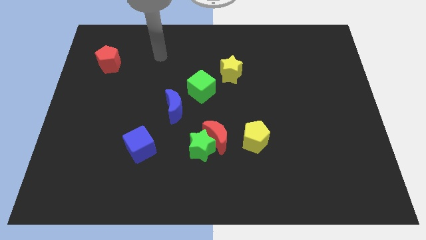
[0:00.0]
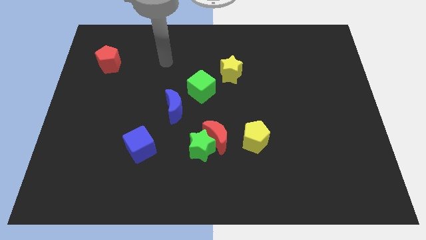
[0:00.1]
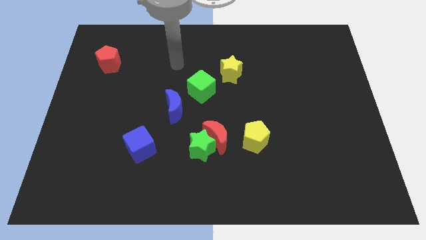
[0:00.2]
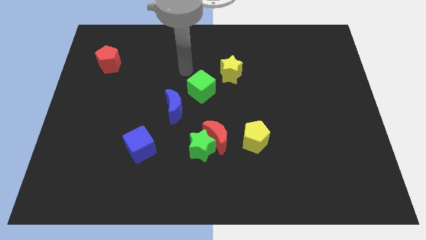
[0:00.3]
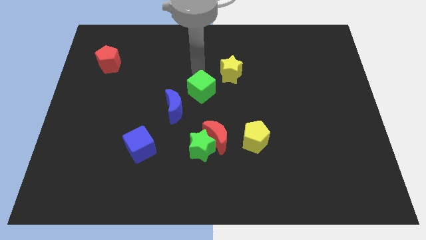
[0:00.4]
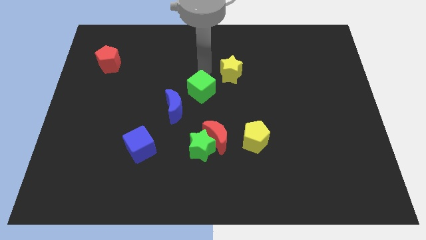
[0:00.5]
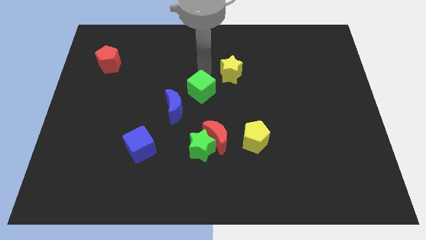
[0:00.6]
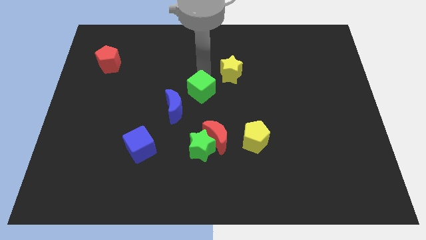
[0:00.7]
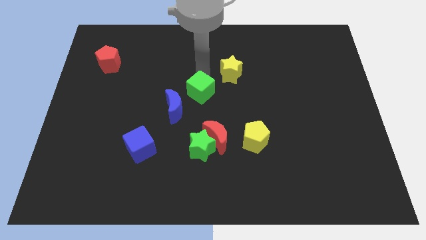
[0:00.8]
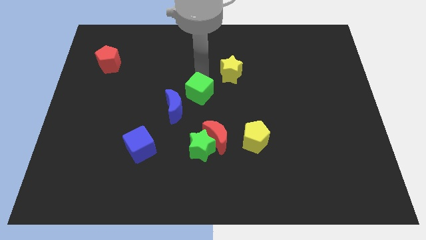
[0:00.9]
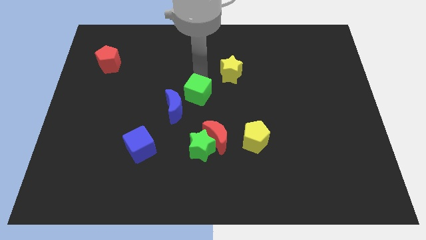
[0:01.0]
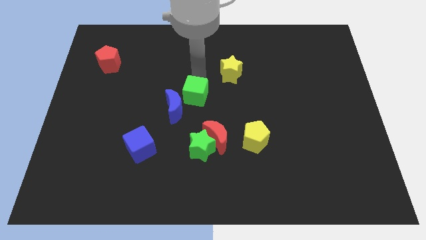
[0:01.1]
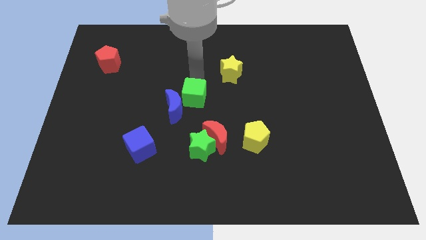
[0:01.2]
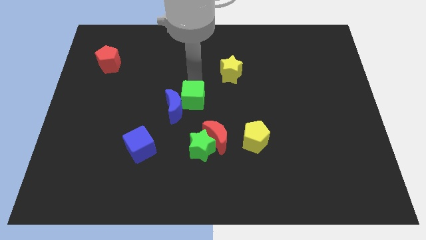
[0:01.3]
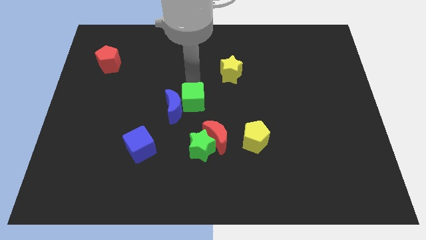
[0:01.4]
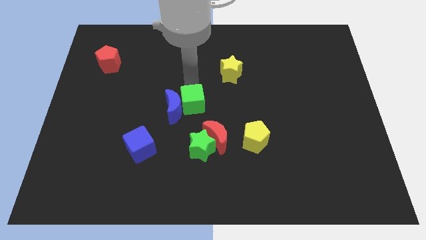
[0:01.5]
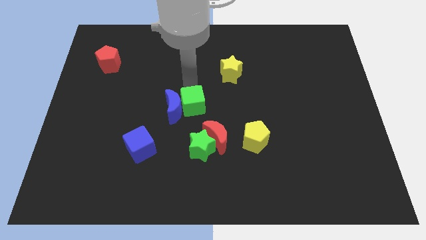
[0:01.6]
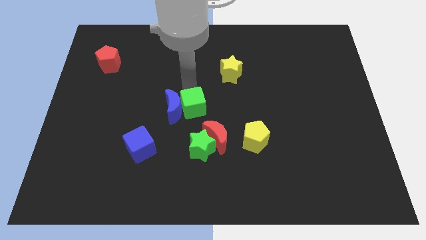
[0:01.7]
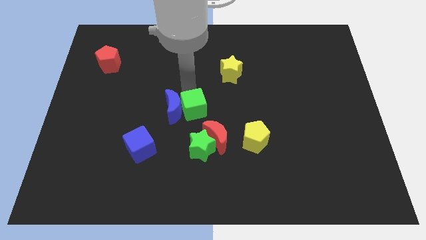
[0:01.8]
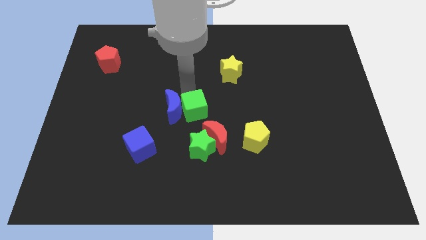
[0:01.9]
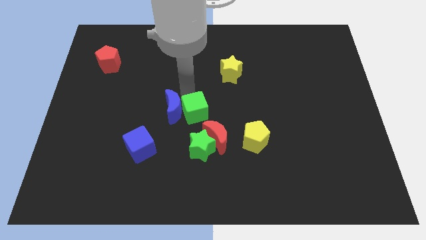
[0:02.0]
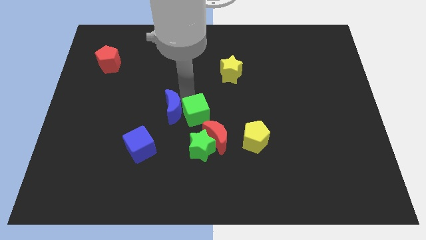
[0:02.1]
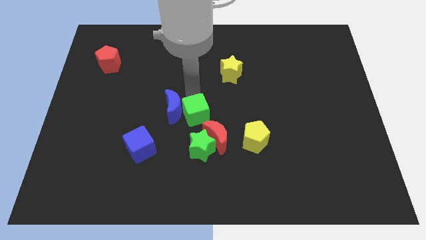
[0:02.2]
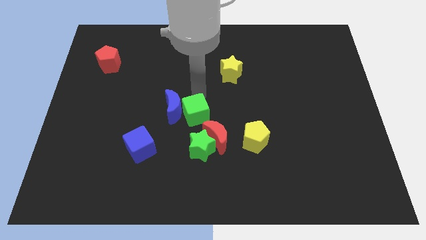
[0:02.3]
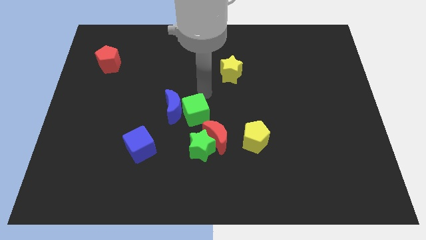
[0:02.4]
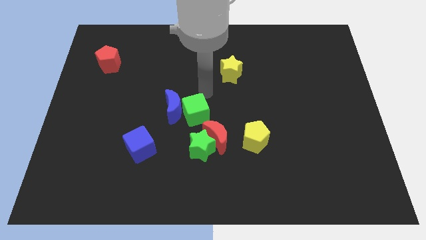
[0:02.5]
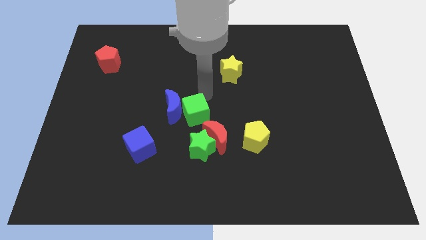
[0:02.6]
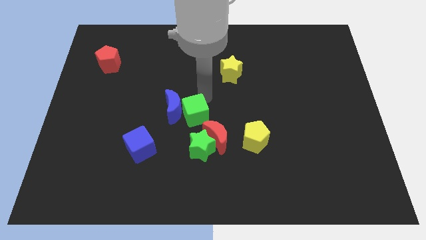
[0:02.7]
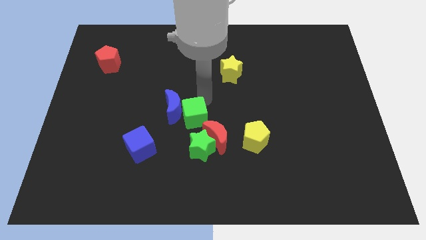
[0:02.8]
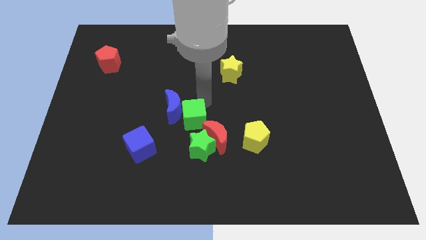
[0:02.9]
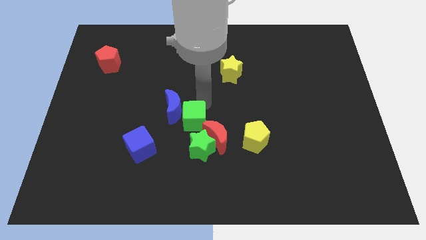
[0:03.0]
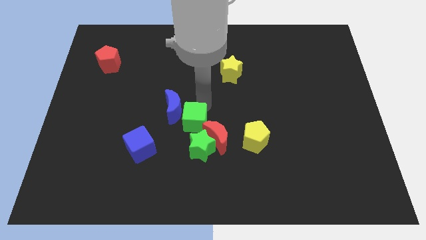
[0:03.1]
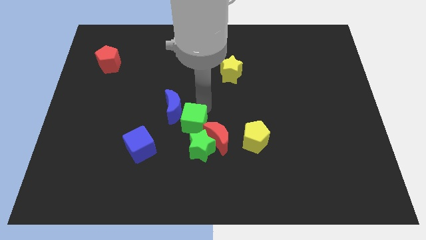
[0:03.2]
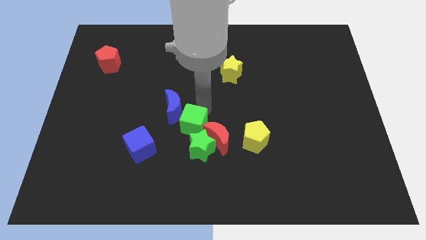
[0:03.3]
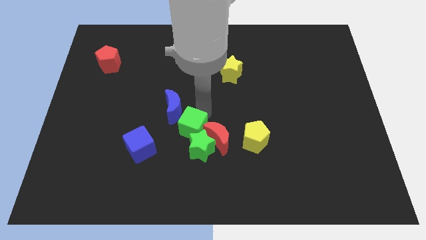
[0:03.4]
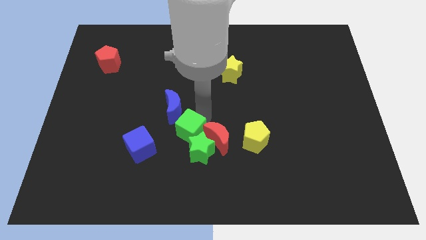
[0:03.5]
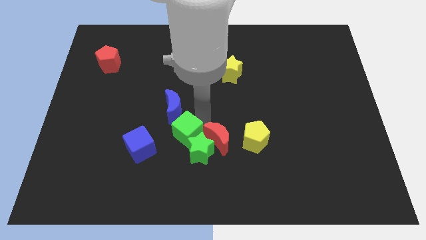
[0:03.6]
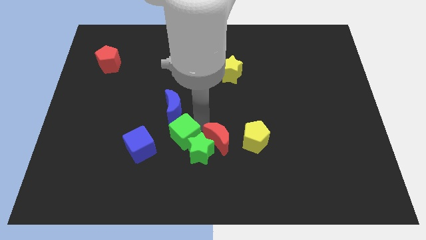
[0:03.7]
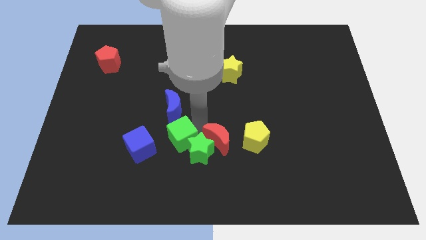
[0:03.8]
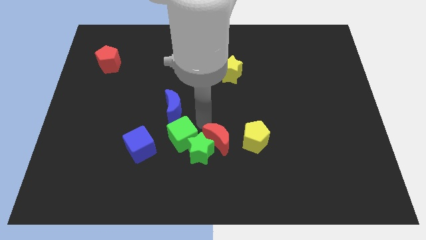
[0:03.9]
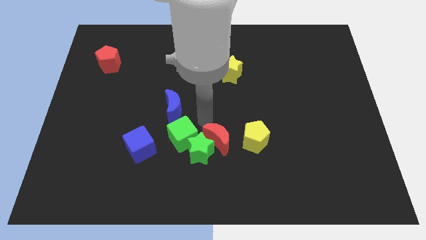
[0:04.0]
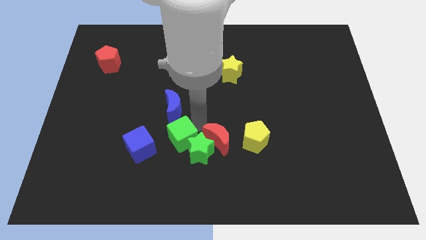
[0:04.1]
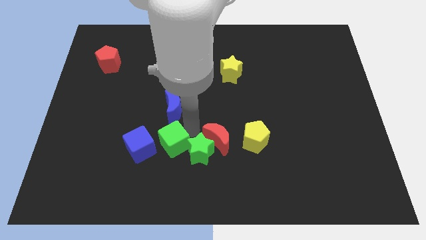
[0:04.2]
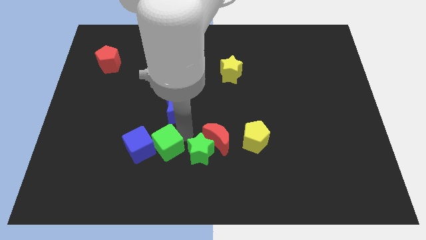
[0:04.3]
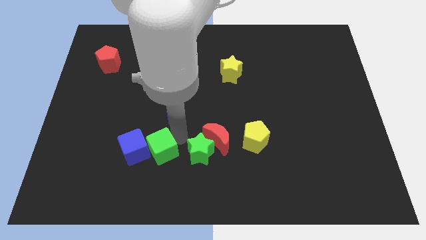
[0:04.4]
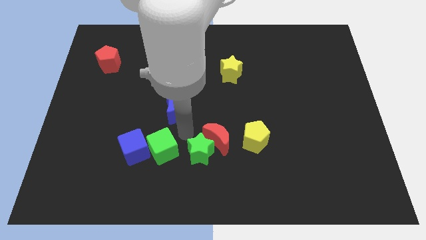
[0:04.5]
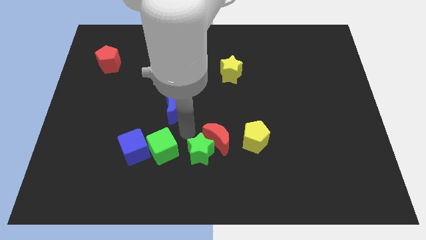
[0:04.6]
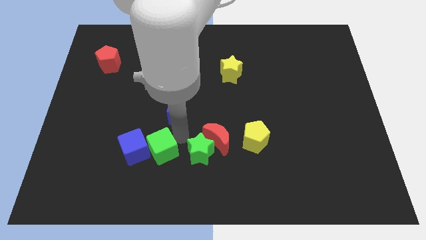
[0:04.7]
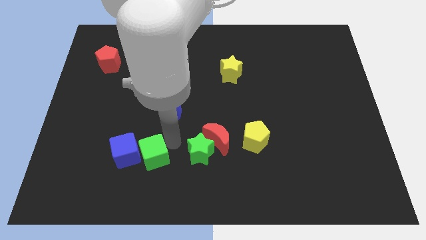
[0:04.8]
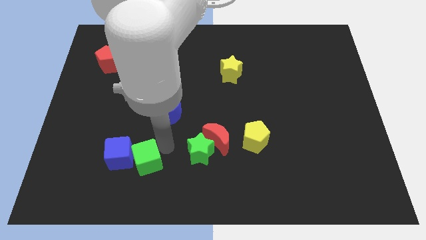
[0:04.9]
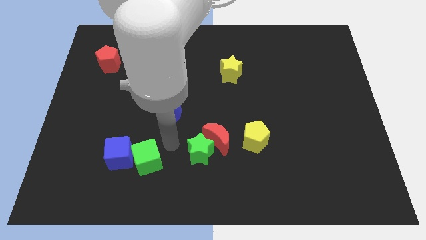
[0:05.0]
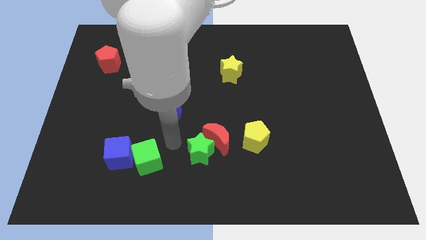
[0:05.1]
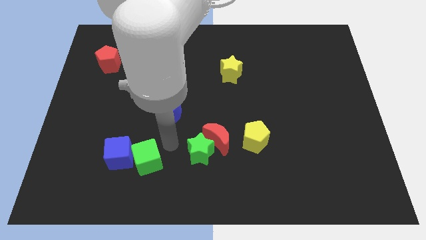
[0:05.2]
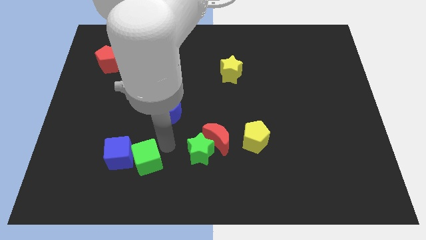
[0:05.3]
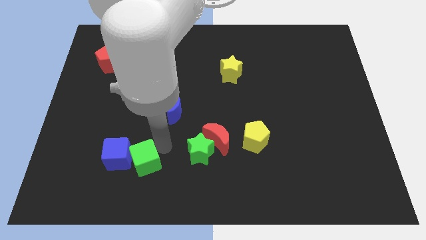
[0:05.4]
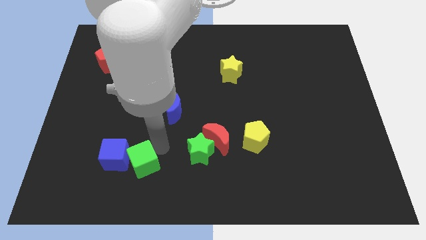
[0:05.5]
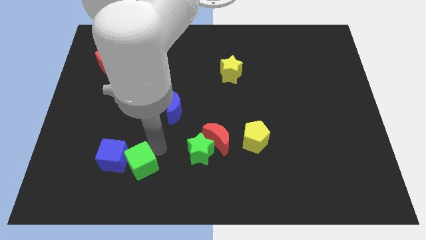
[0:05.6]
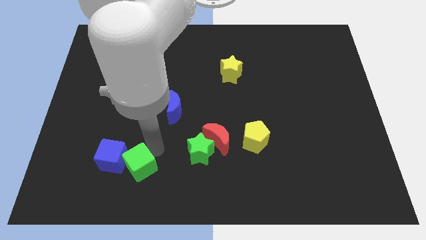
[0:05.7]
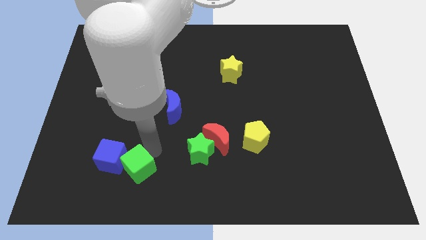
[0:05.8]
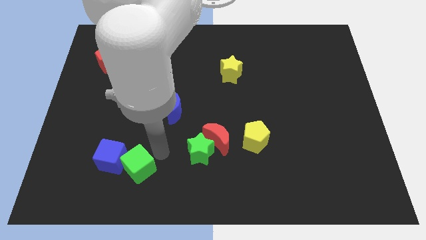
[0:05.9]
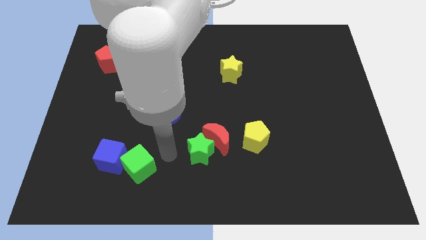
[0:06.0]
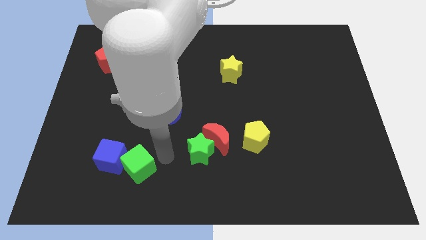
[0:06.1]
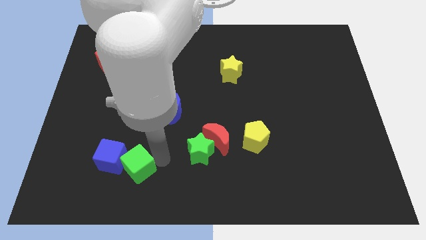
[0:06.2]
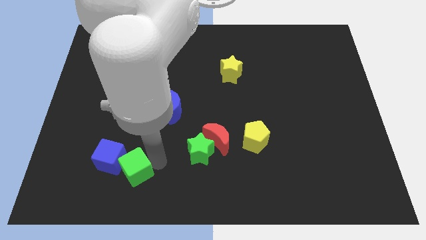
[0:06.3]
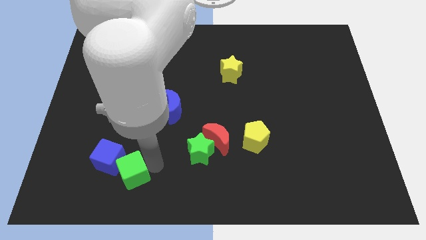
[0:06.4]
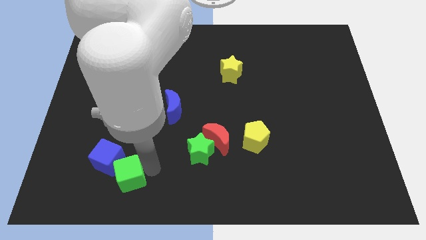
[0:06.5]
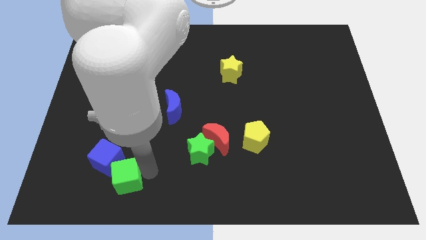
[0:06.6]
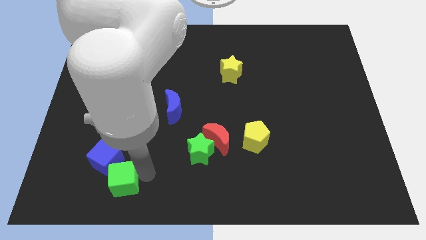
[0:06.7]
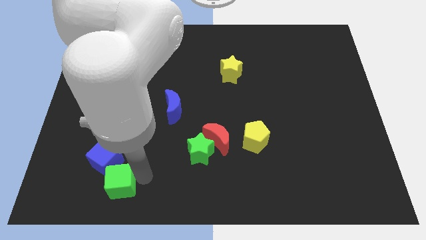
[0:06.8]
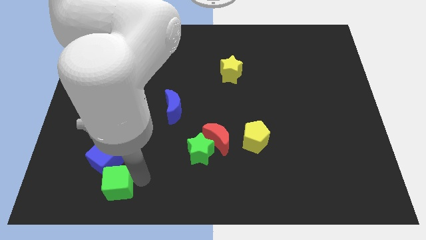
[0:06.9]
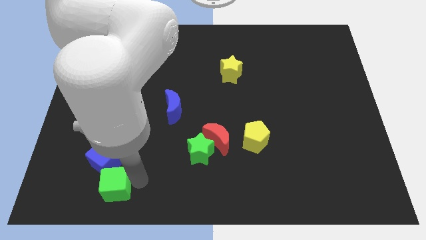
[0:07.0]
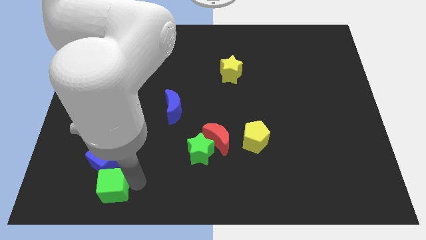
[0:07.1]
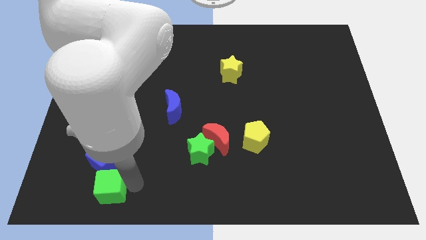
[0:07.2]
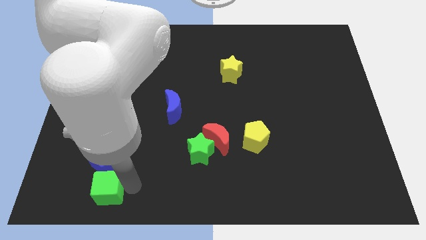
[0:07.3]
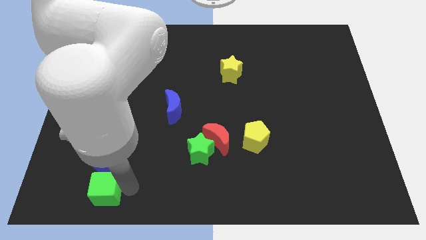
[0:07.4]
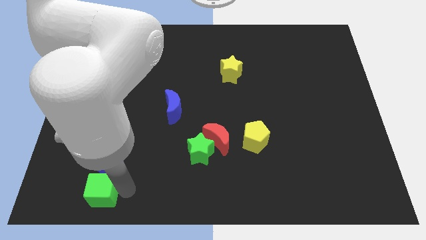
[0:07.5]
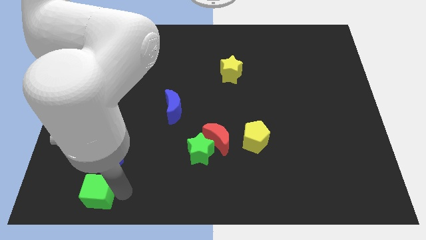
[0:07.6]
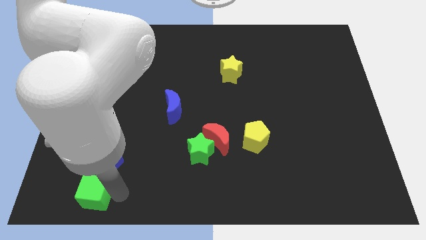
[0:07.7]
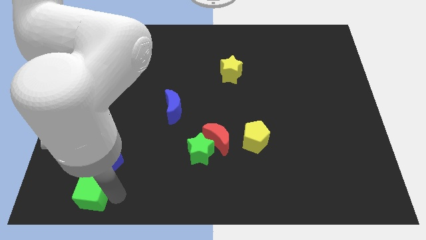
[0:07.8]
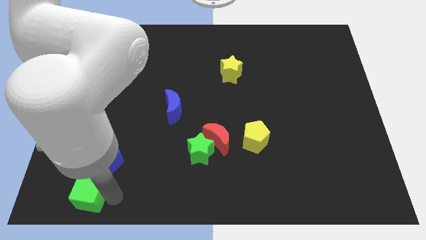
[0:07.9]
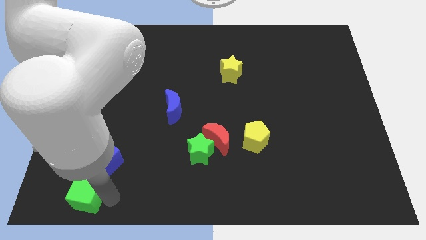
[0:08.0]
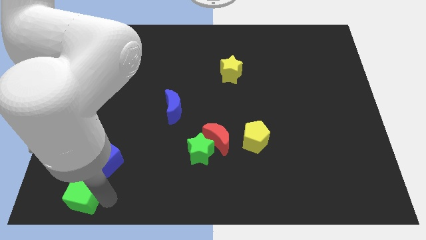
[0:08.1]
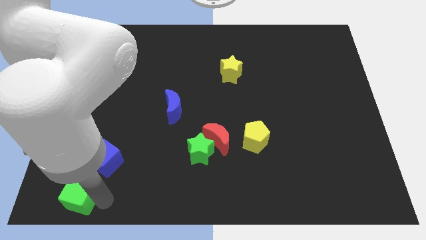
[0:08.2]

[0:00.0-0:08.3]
push the green cube to the bottom left of the board
